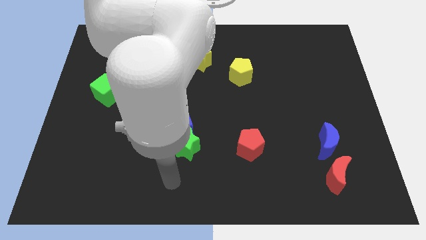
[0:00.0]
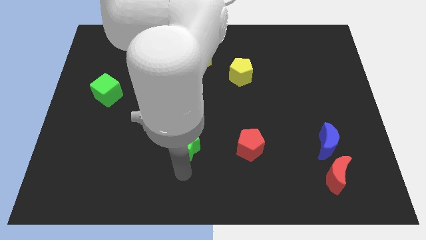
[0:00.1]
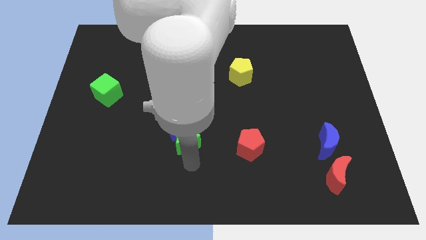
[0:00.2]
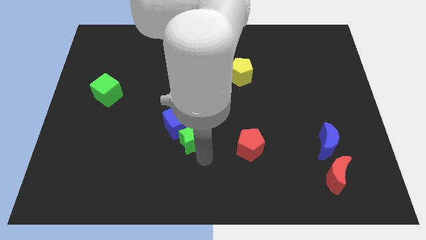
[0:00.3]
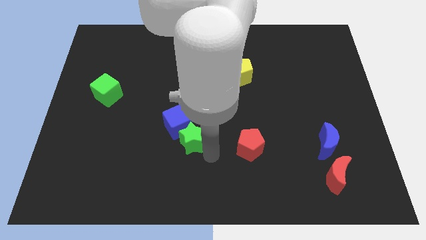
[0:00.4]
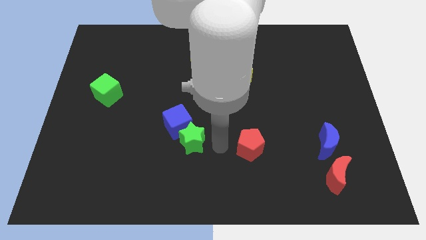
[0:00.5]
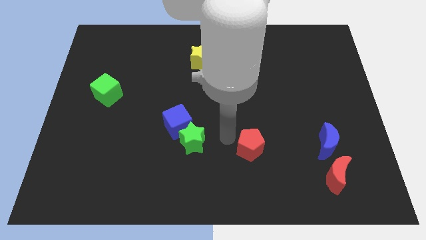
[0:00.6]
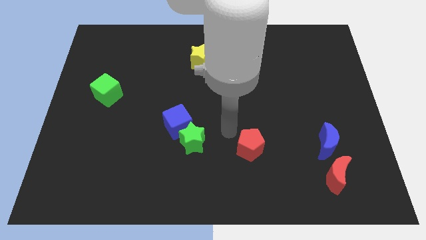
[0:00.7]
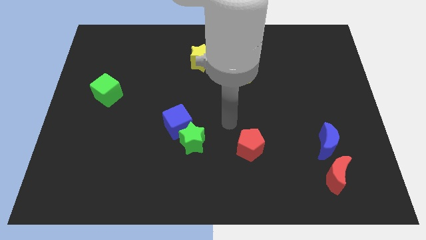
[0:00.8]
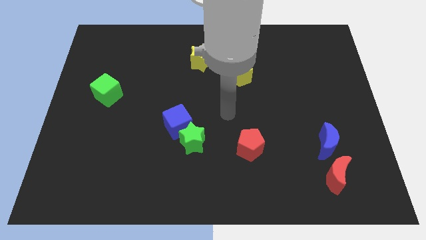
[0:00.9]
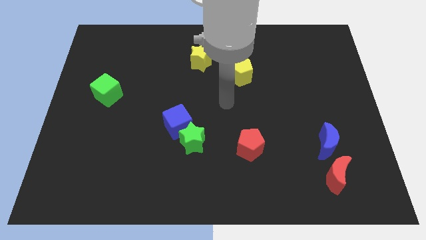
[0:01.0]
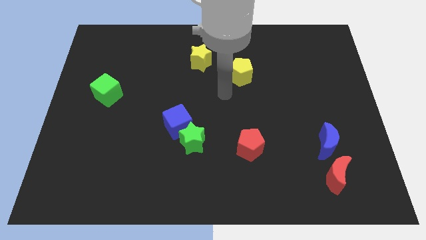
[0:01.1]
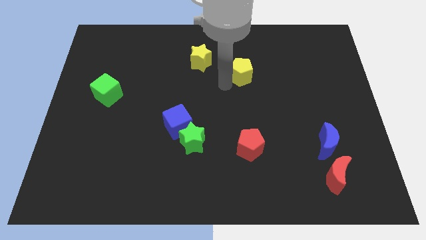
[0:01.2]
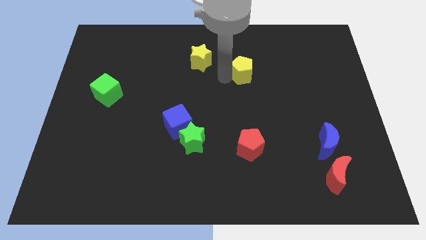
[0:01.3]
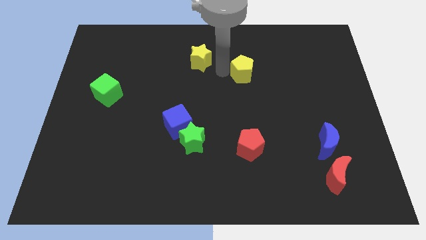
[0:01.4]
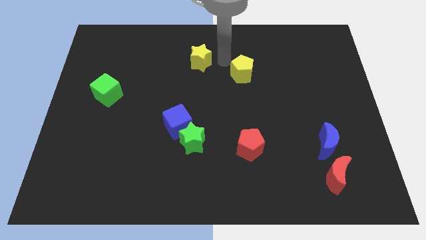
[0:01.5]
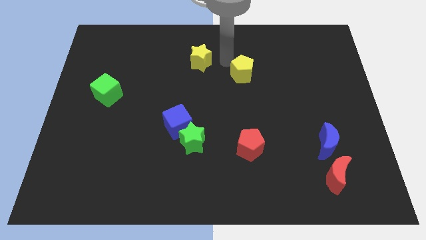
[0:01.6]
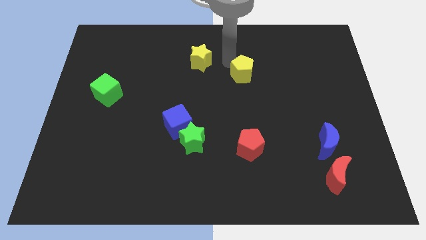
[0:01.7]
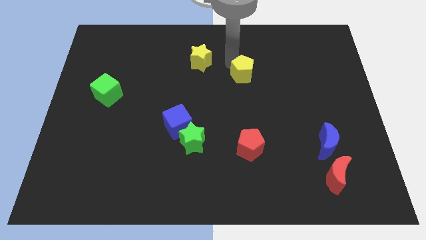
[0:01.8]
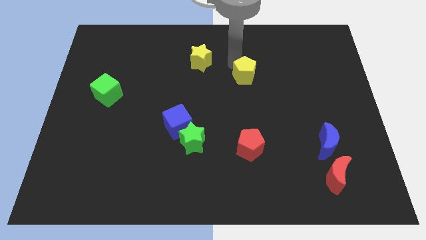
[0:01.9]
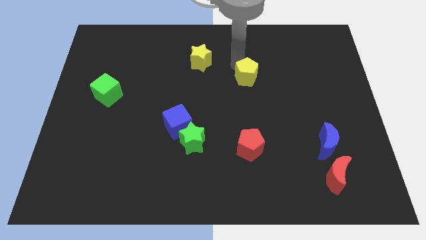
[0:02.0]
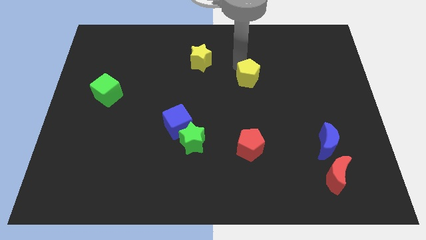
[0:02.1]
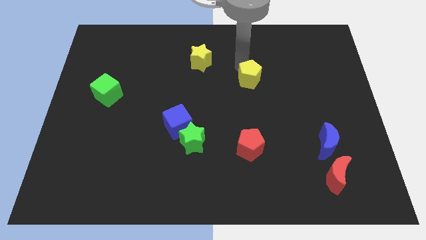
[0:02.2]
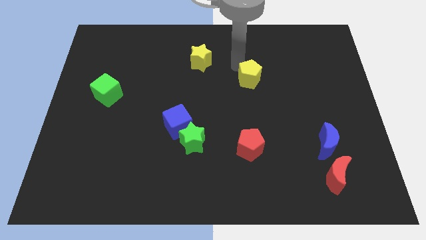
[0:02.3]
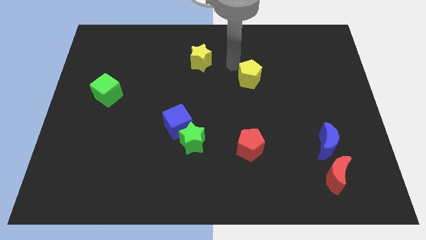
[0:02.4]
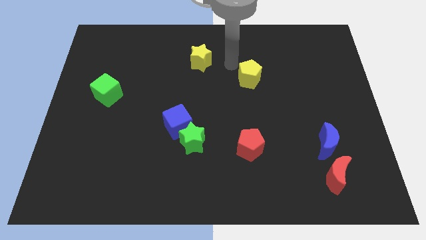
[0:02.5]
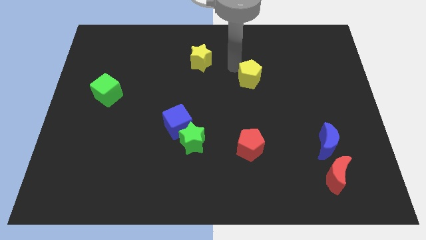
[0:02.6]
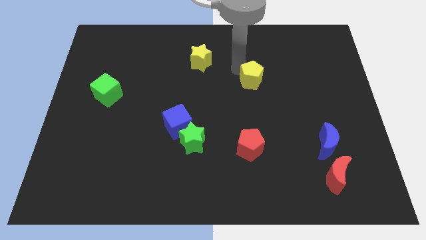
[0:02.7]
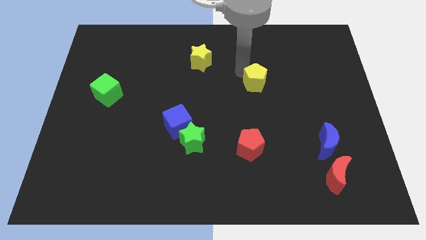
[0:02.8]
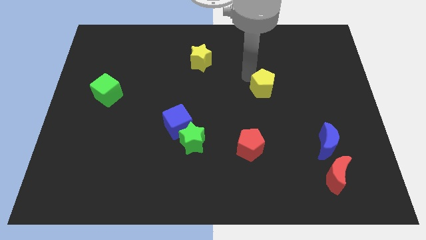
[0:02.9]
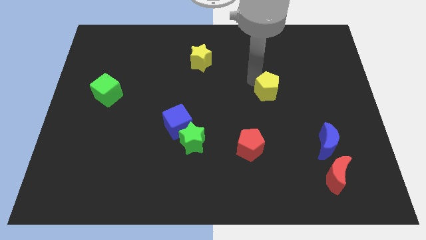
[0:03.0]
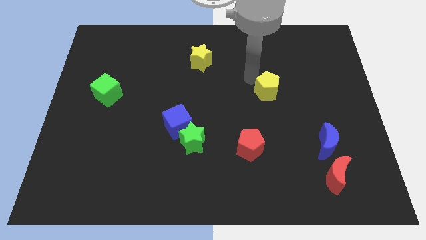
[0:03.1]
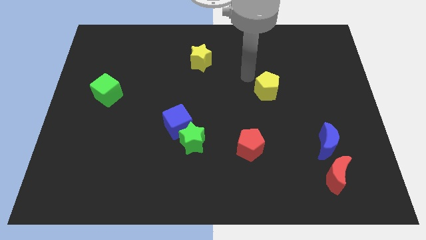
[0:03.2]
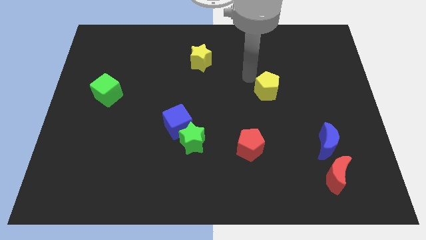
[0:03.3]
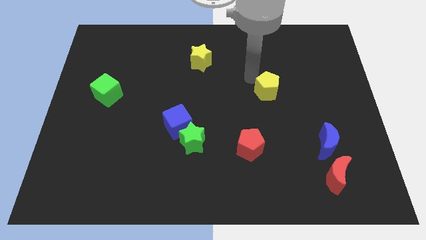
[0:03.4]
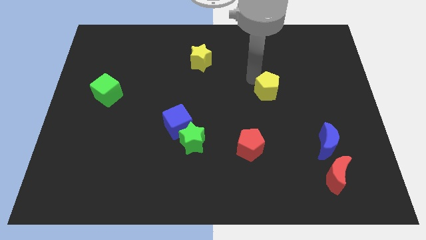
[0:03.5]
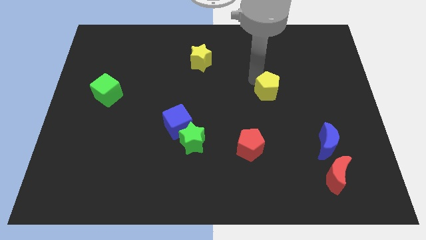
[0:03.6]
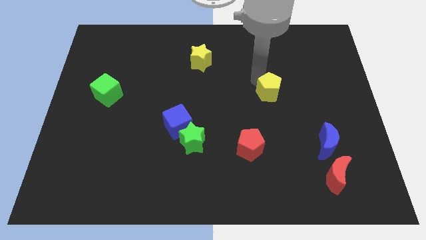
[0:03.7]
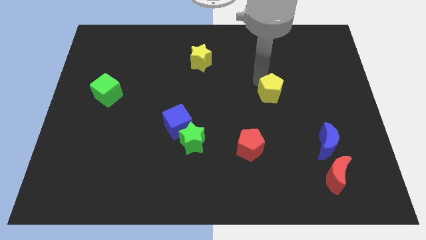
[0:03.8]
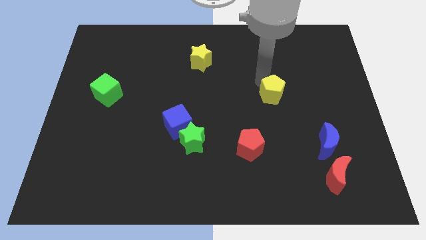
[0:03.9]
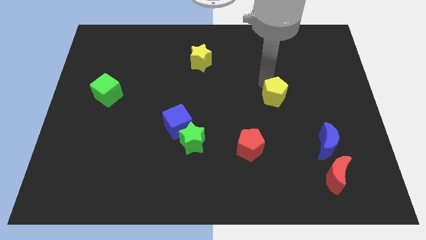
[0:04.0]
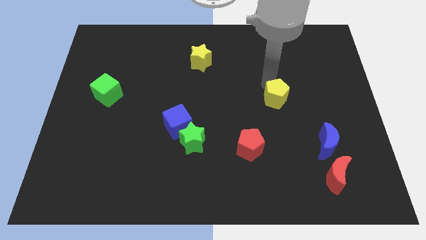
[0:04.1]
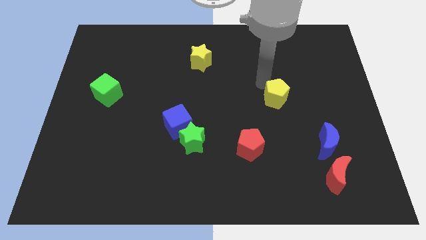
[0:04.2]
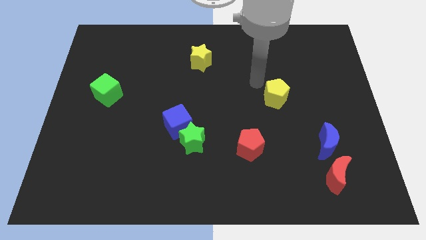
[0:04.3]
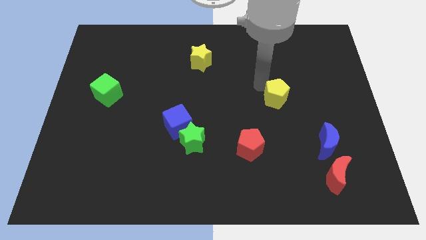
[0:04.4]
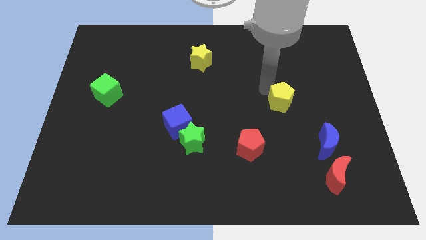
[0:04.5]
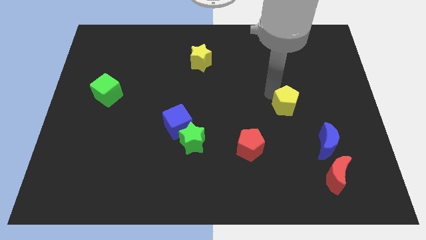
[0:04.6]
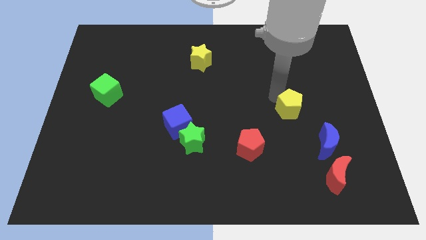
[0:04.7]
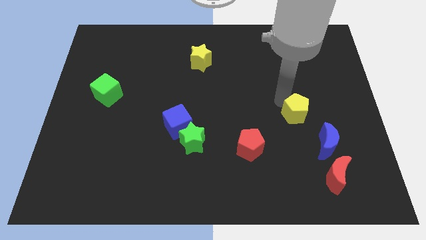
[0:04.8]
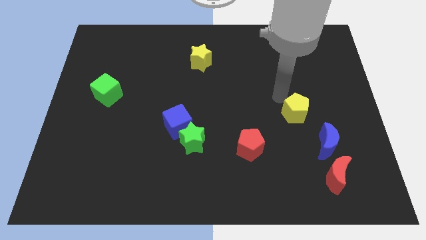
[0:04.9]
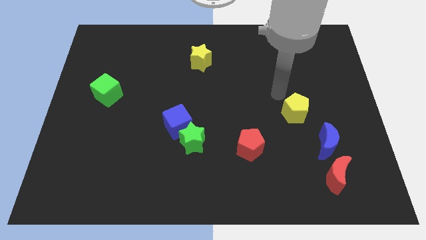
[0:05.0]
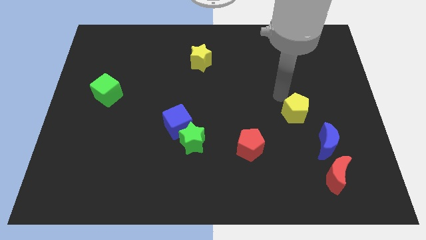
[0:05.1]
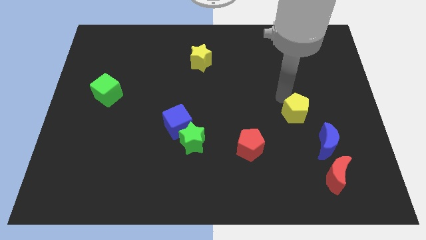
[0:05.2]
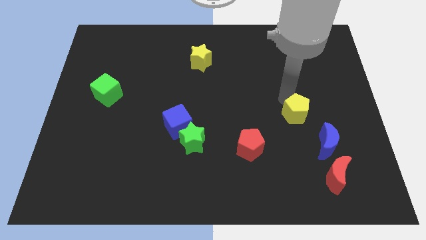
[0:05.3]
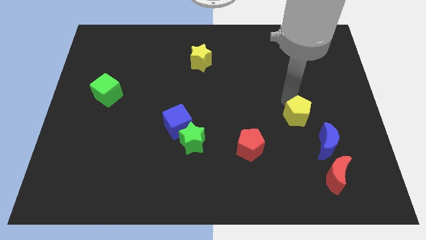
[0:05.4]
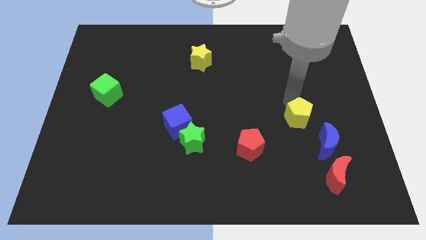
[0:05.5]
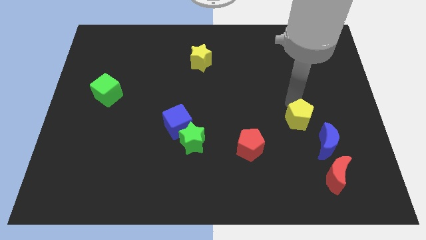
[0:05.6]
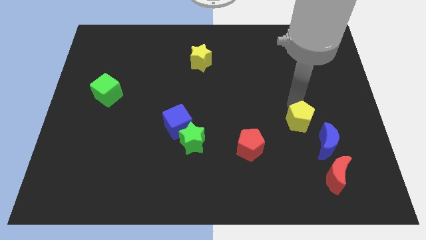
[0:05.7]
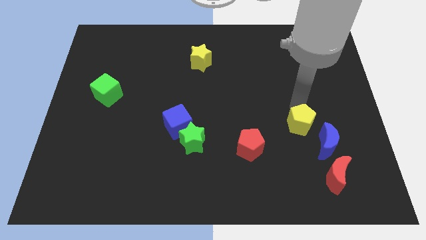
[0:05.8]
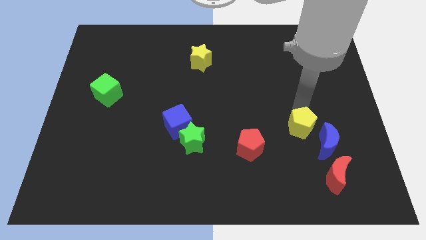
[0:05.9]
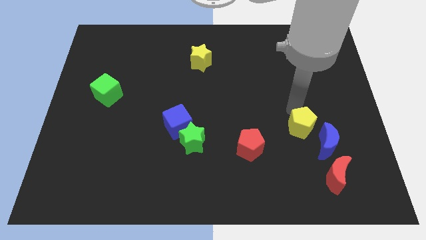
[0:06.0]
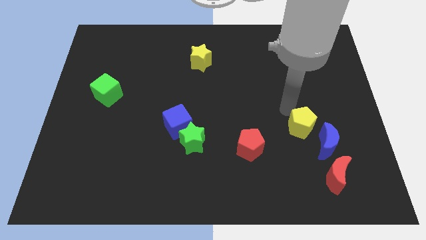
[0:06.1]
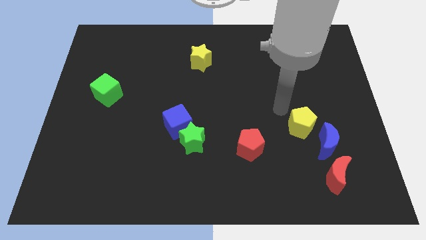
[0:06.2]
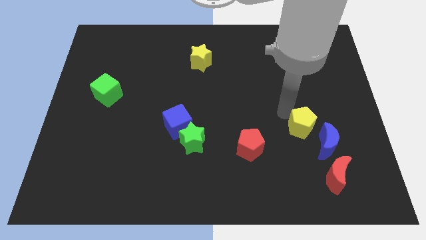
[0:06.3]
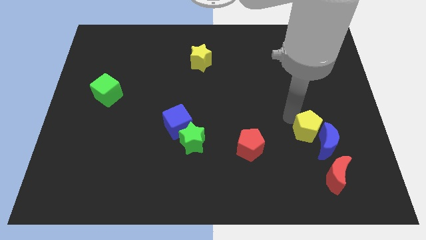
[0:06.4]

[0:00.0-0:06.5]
move the yellow pentagon to the blue moon
